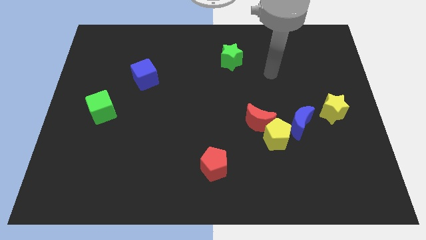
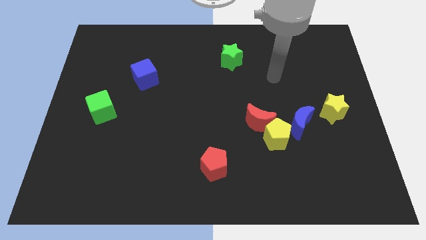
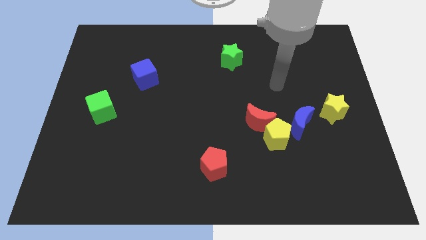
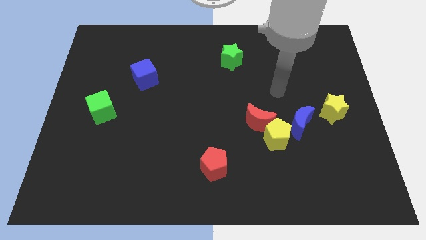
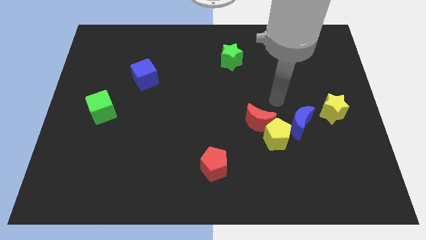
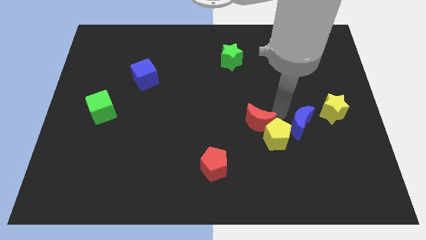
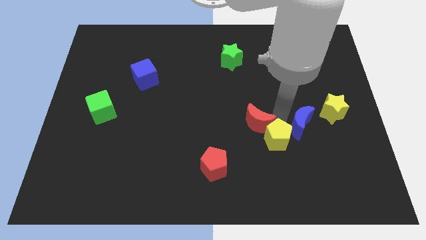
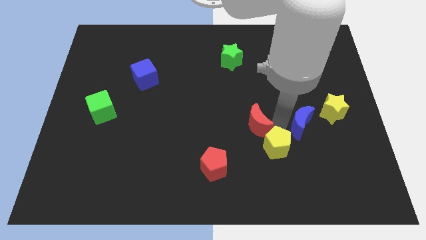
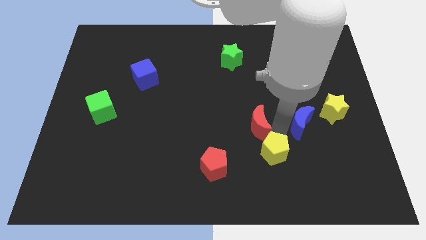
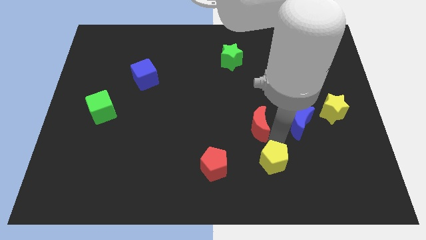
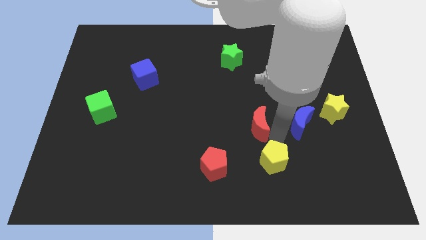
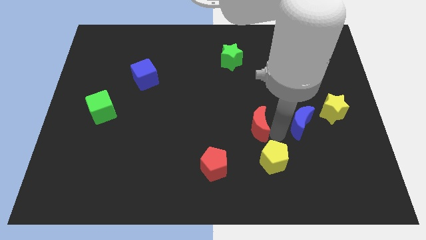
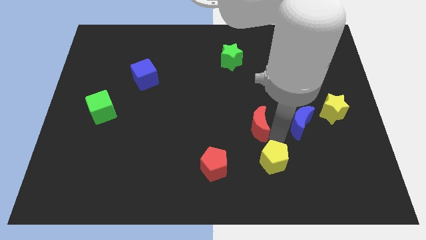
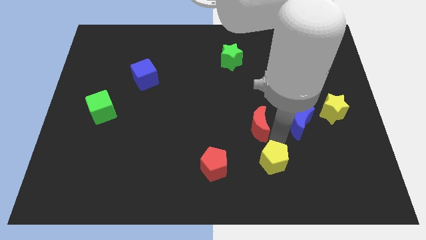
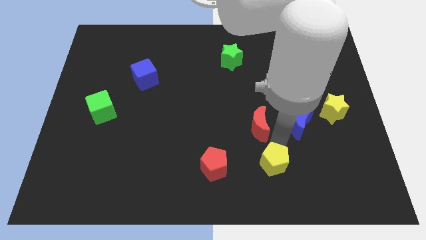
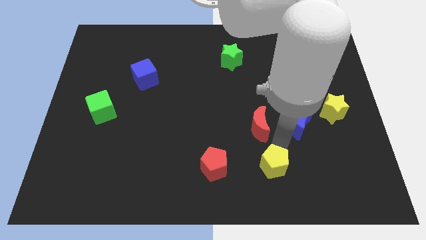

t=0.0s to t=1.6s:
separate the yellow pentagon from the red moon and blue moon

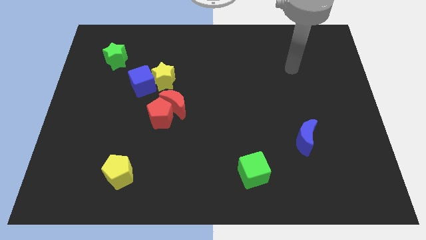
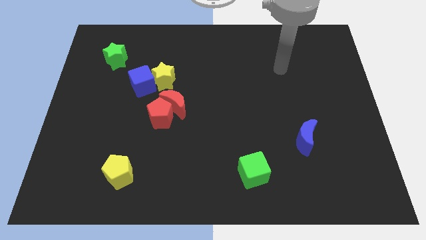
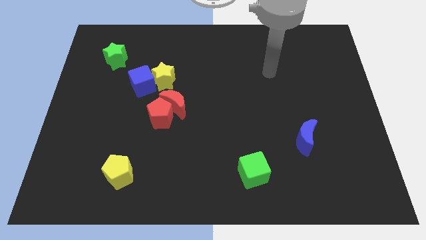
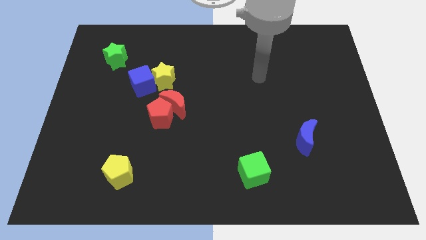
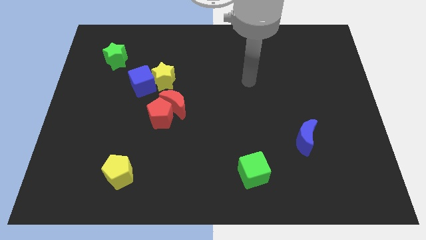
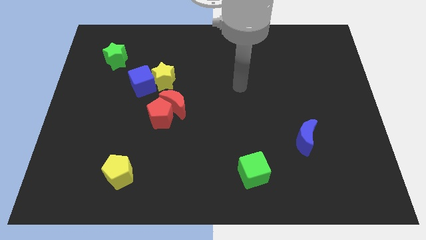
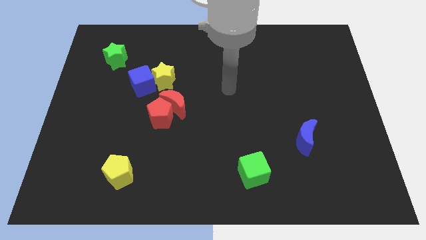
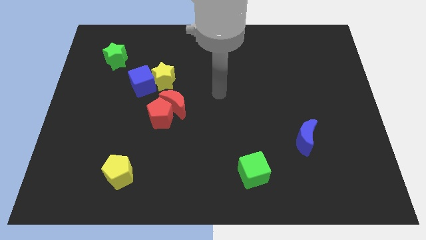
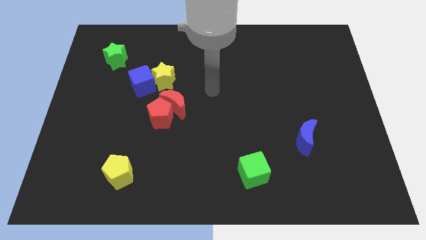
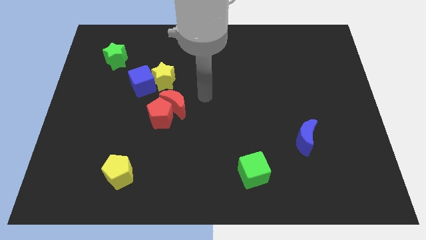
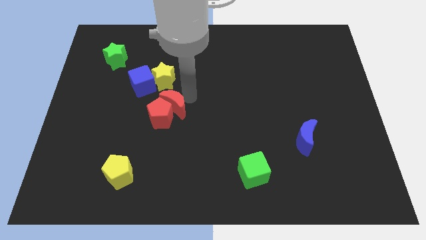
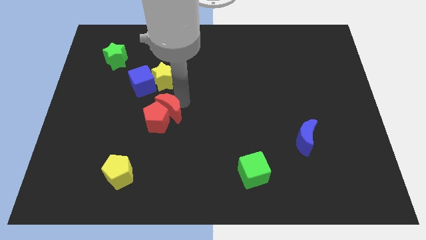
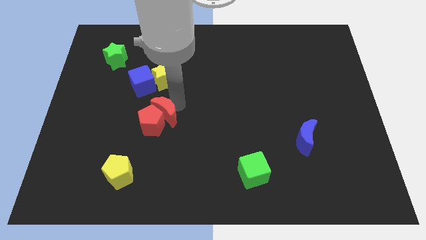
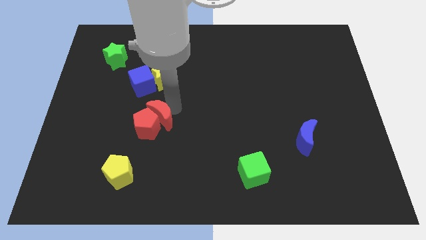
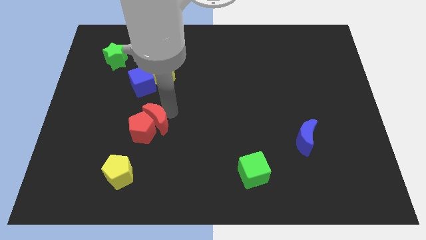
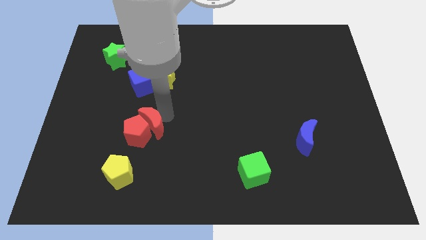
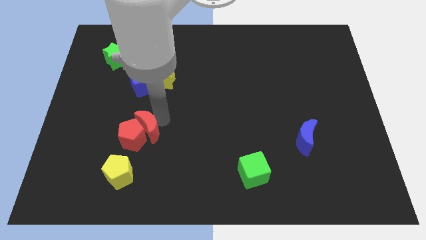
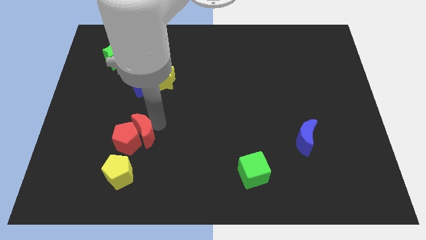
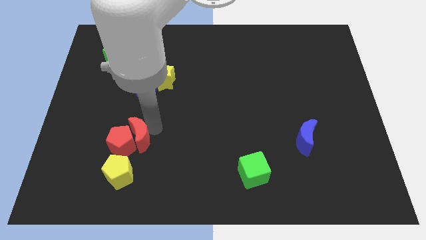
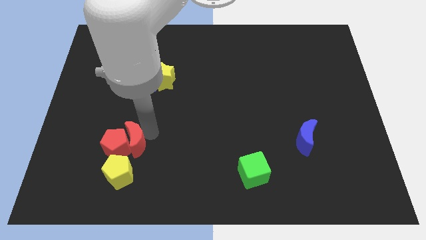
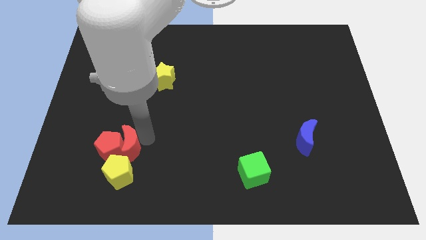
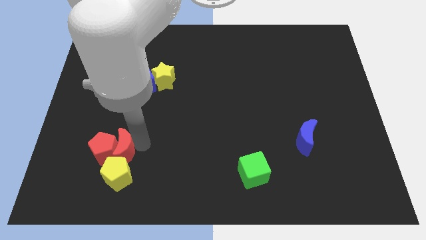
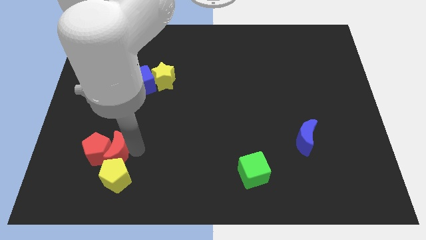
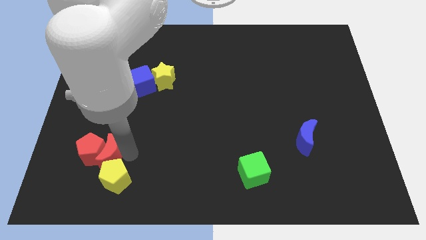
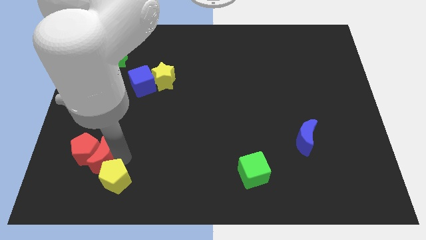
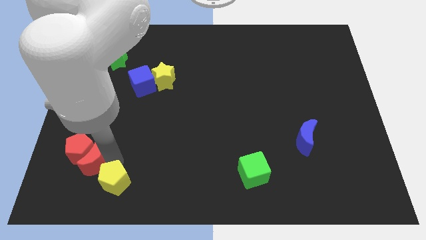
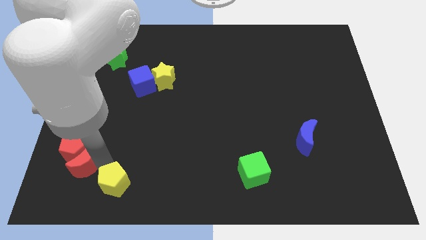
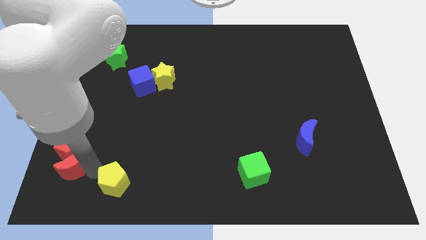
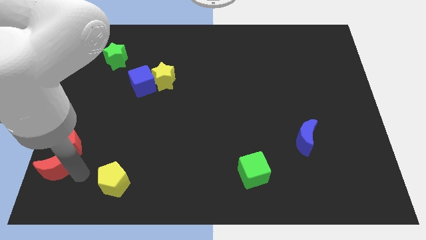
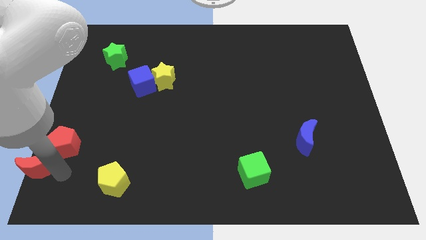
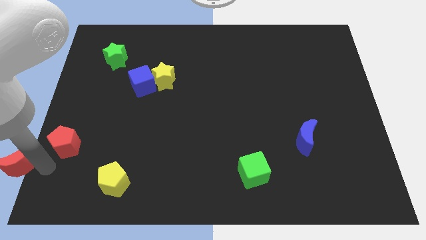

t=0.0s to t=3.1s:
move the red pentagon away from the red moon

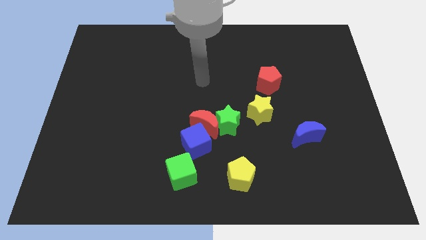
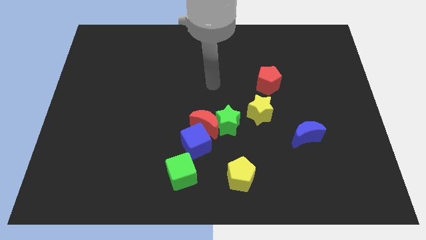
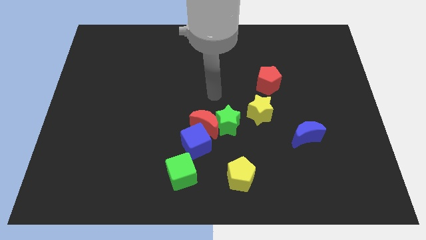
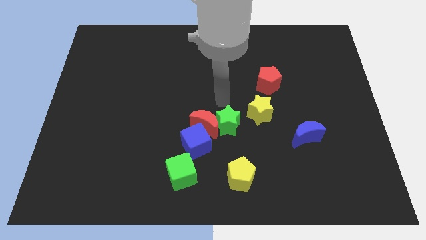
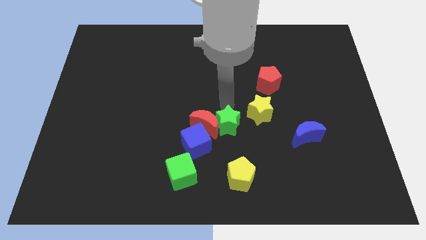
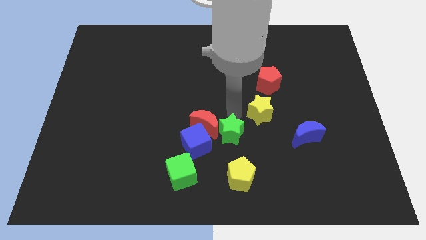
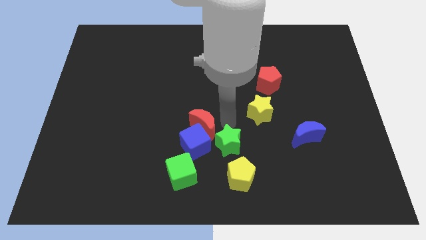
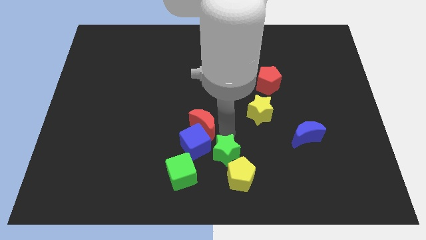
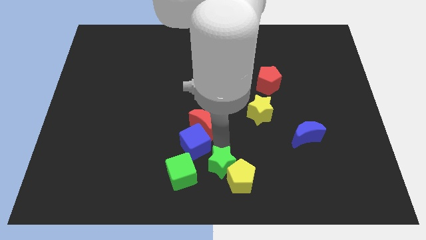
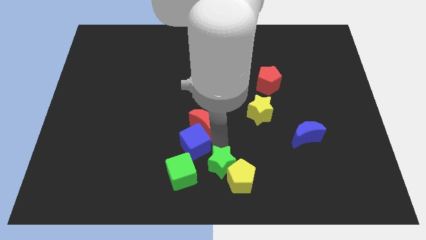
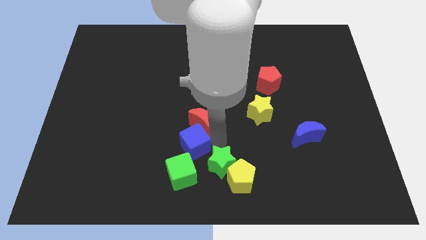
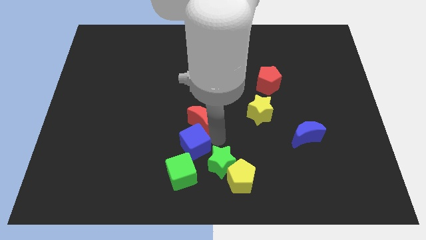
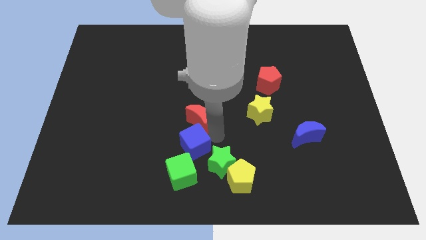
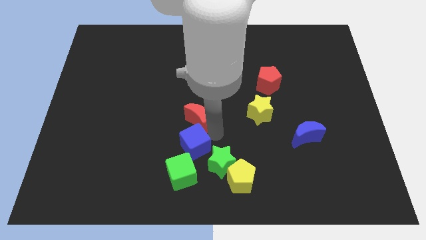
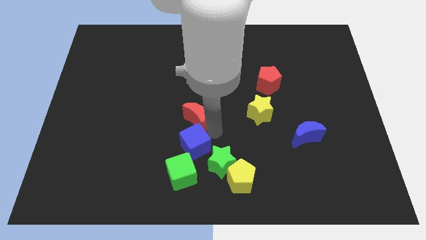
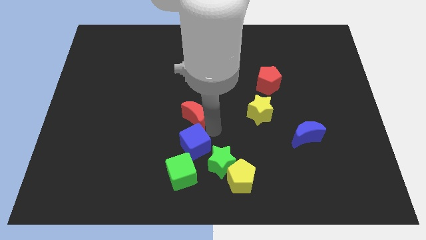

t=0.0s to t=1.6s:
pull the red moon apart from the green star and blue cube

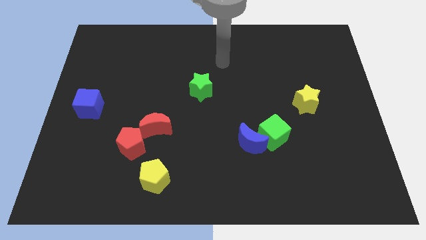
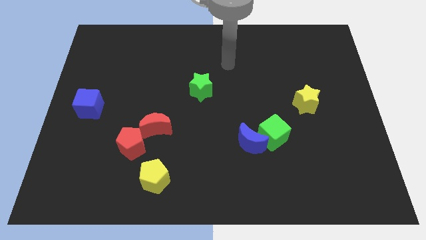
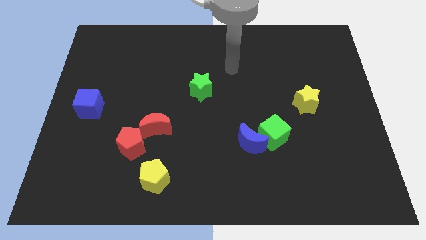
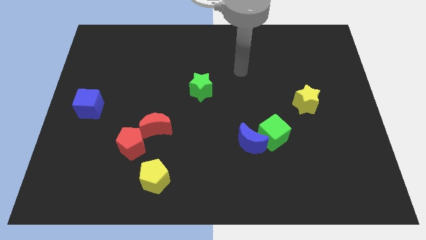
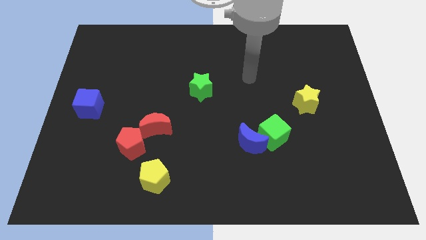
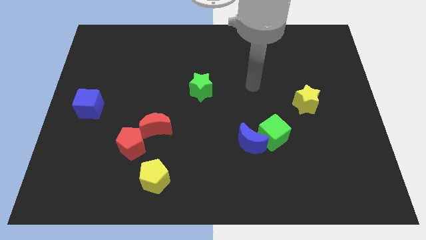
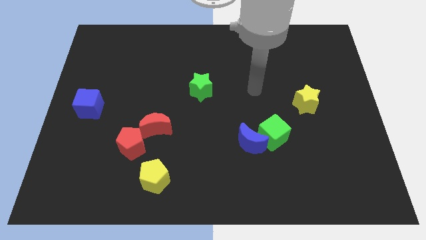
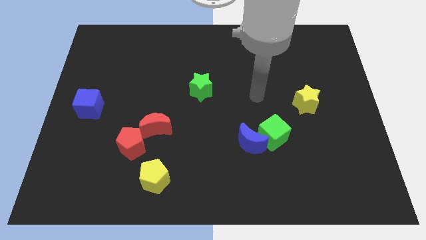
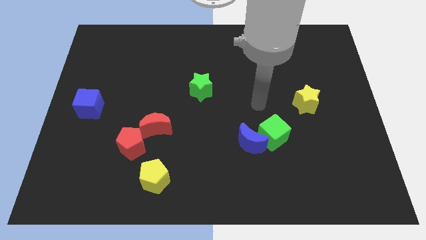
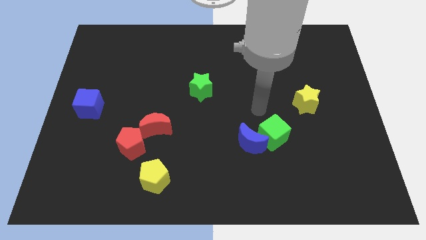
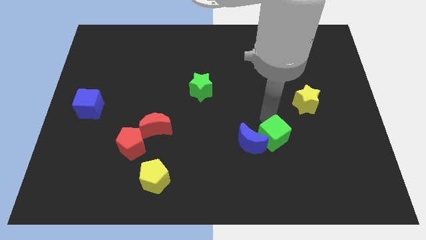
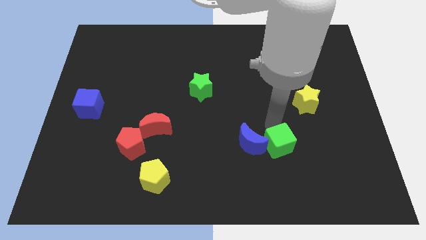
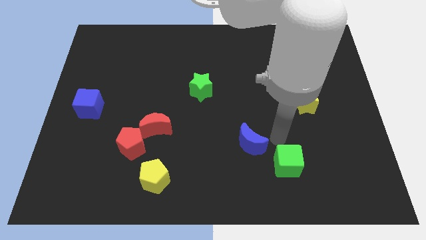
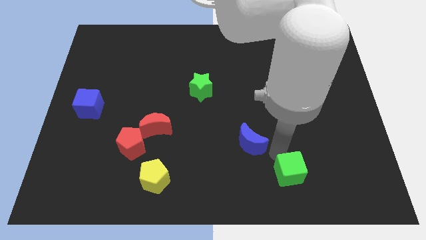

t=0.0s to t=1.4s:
separate the blue moon from the green cube

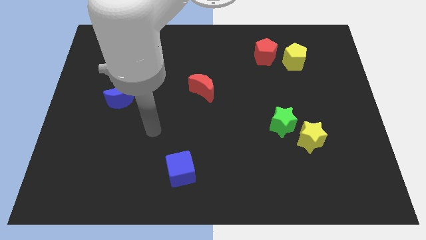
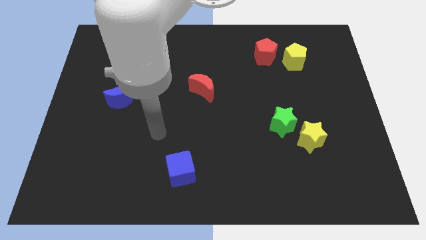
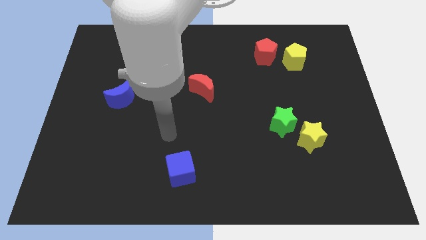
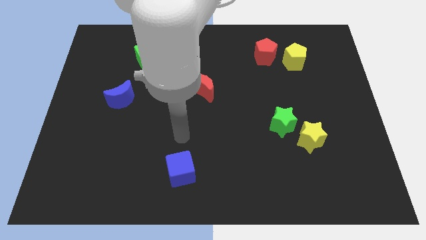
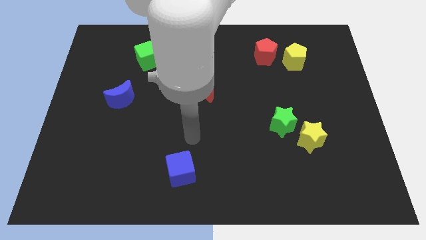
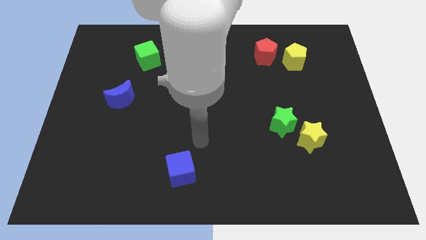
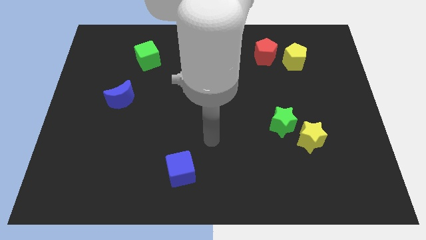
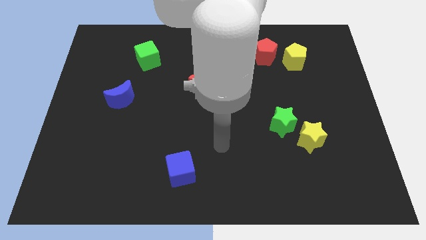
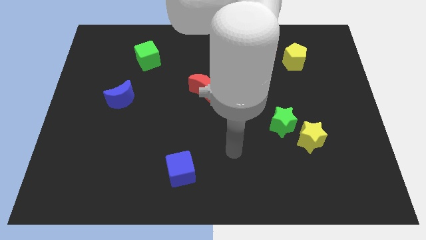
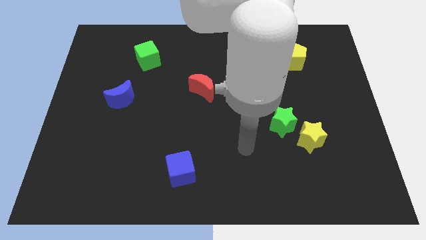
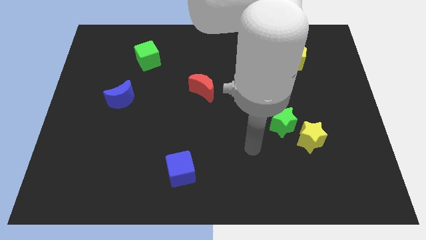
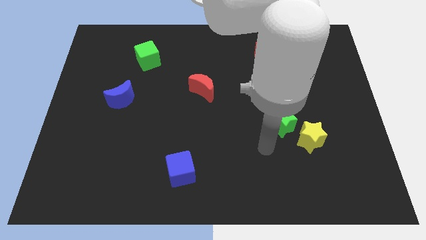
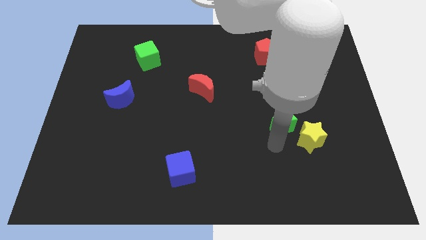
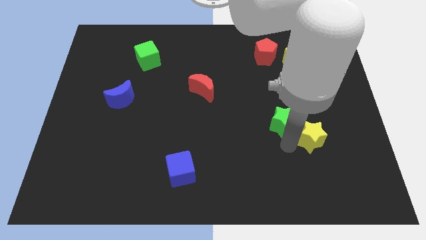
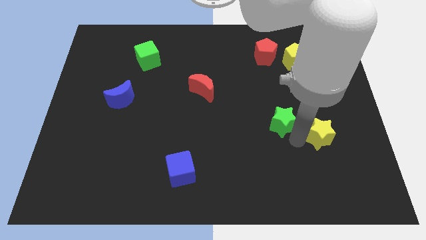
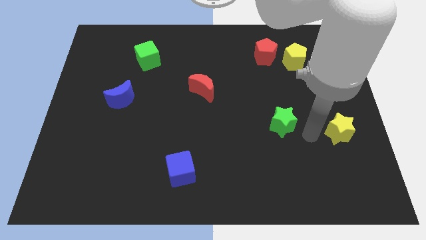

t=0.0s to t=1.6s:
move the green star away from the yellow star

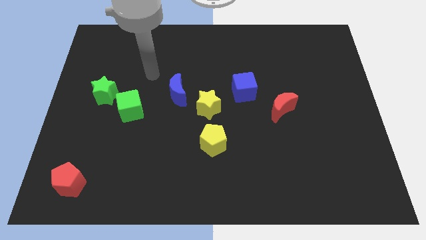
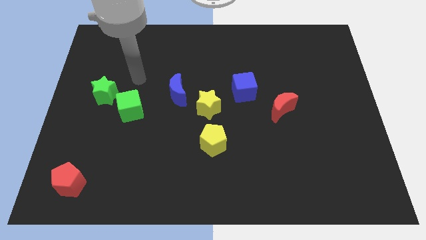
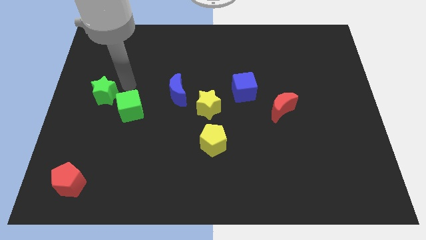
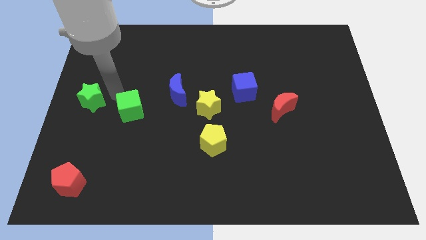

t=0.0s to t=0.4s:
pull the green cube apart from the green star
